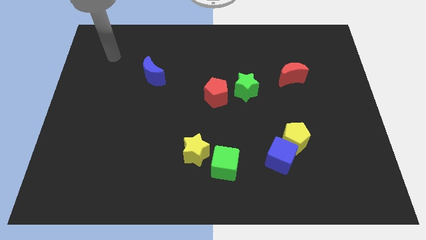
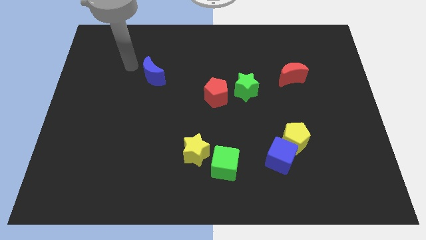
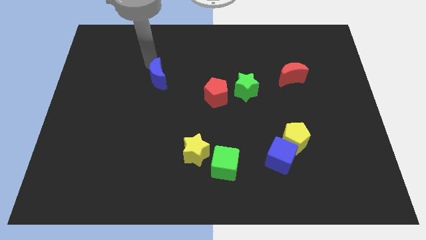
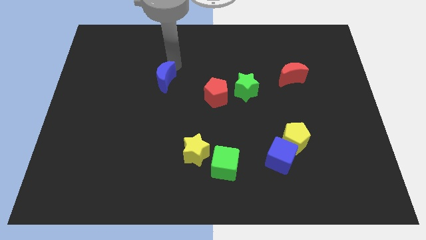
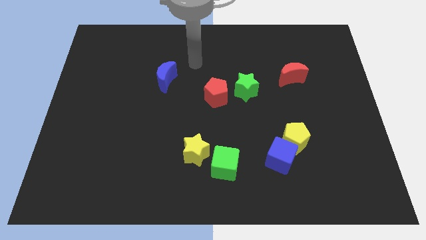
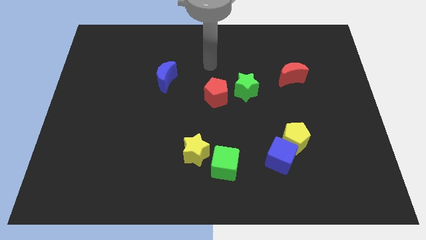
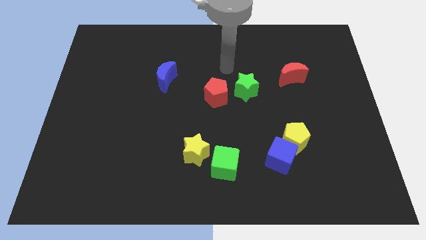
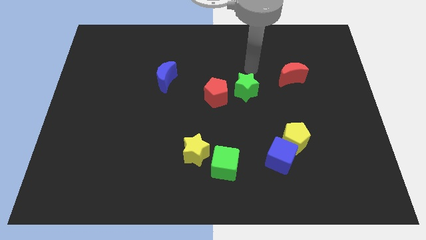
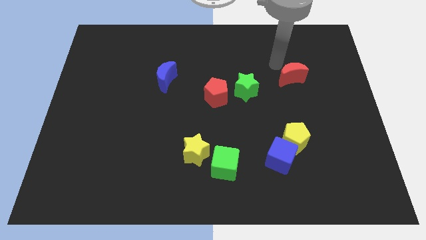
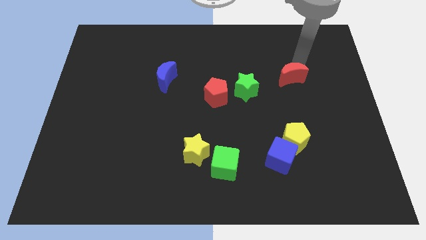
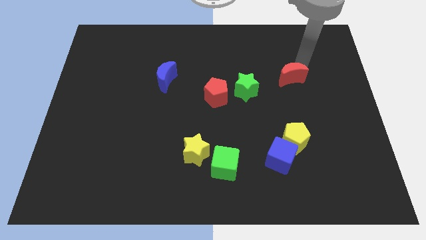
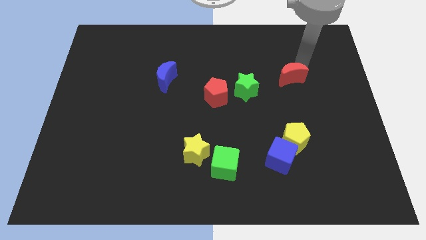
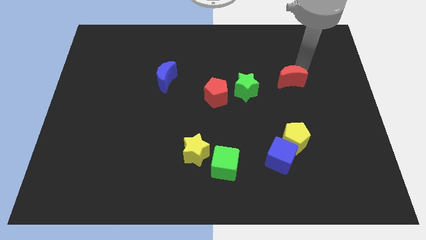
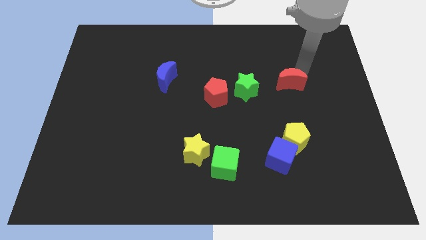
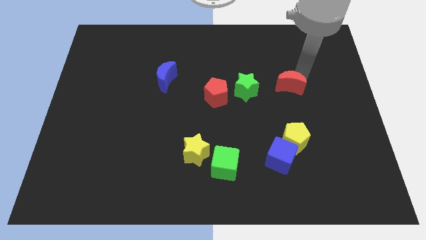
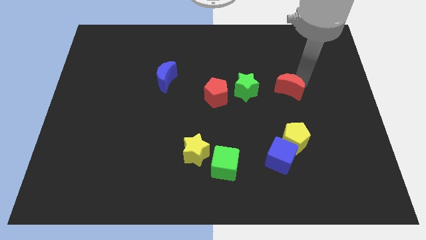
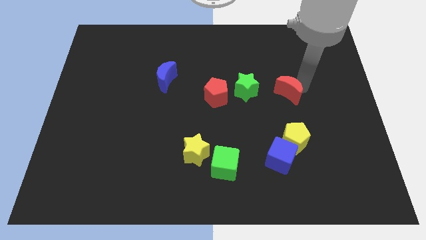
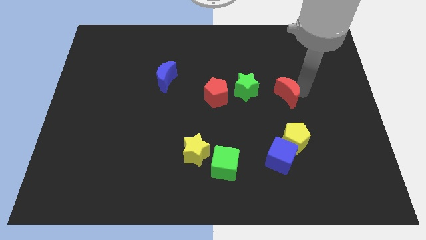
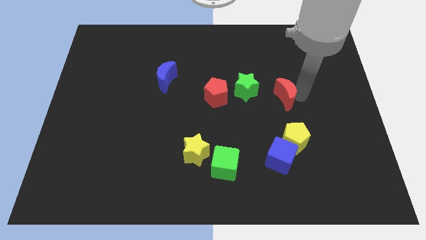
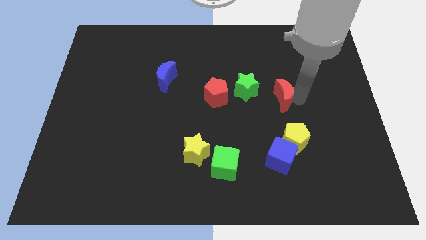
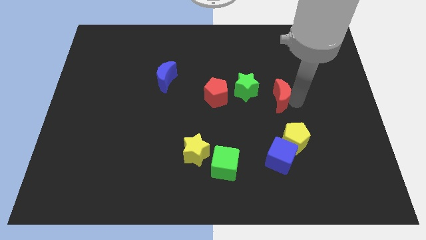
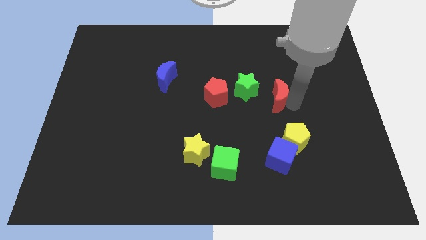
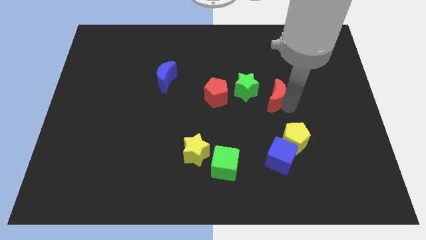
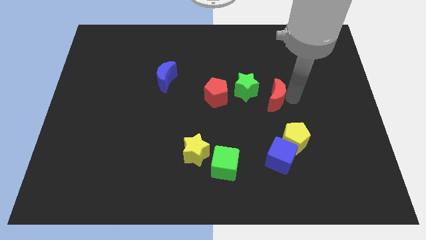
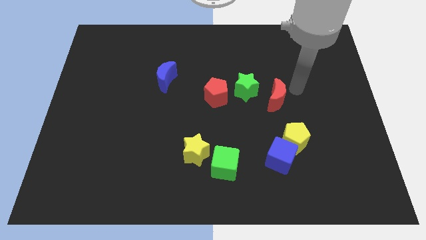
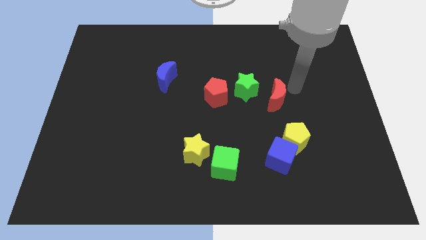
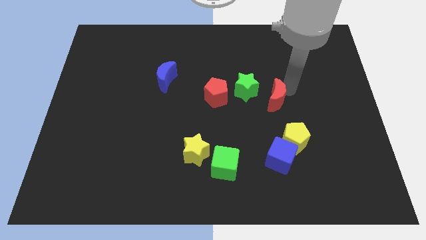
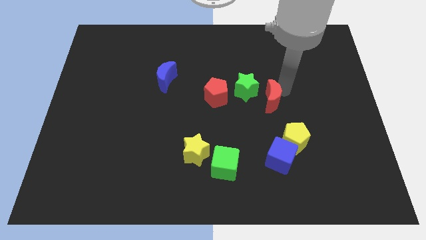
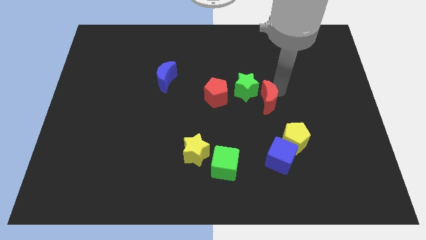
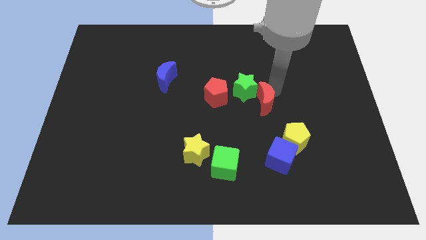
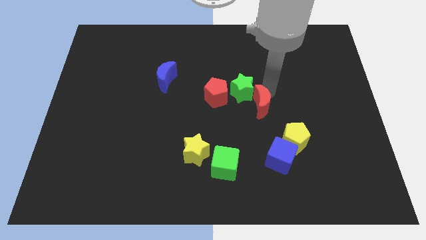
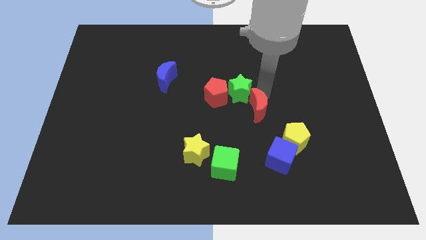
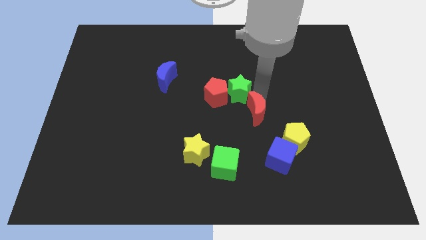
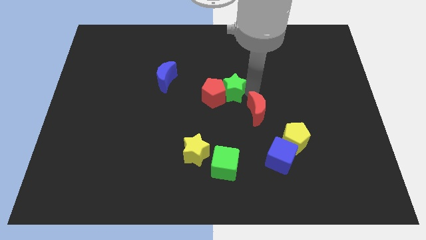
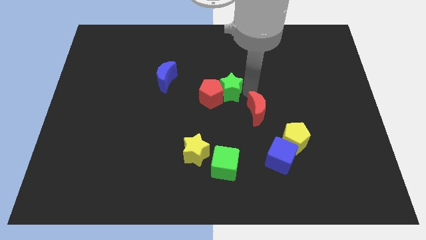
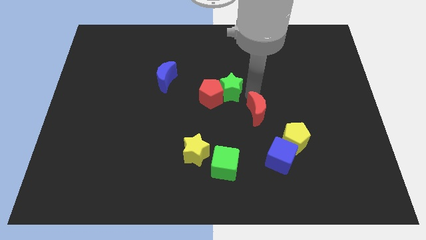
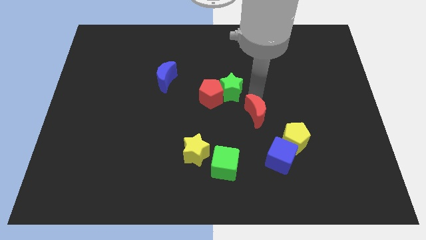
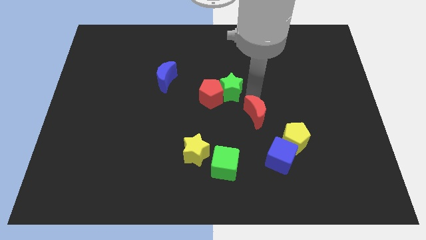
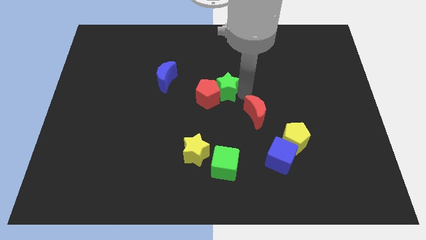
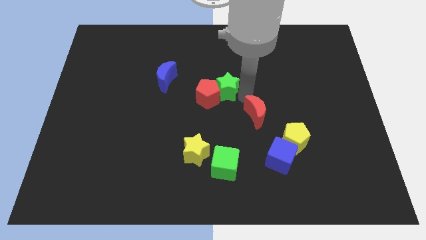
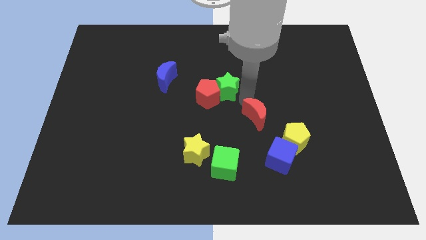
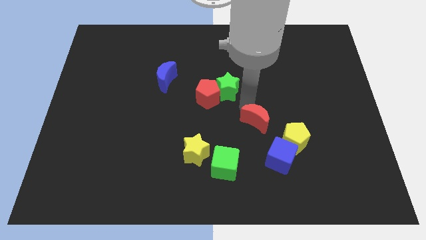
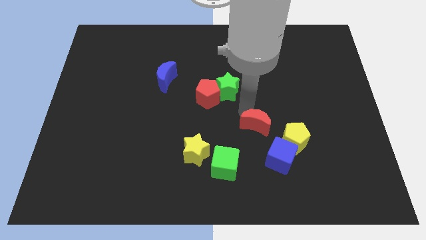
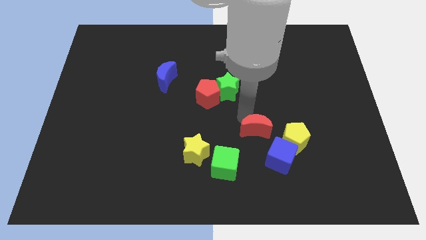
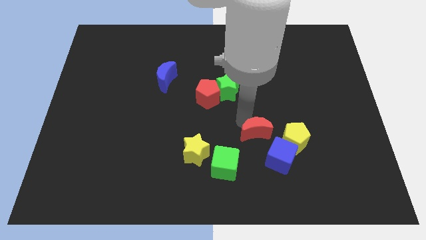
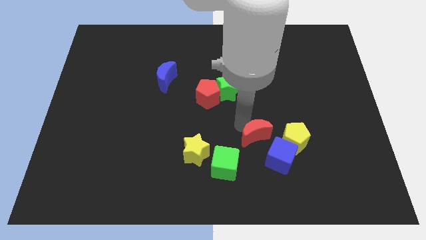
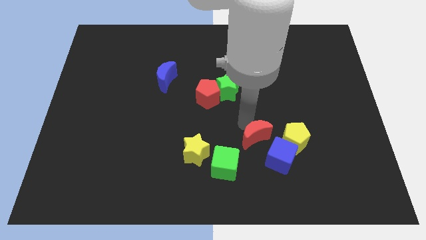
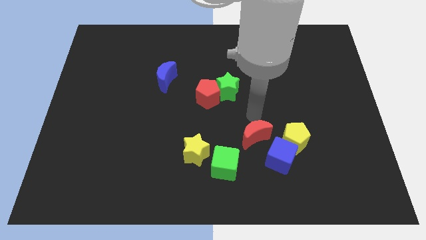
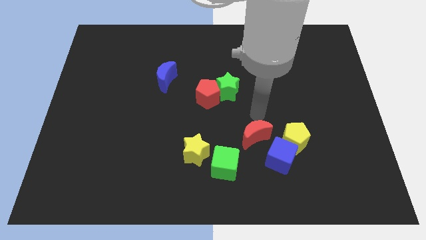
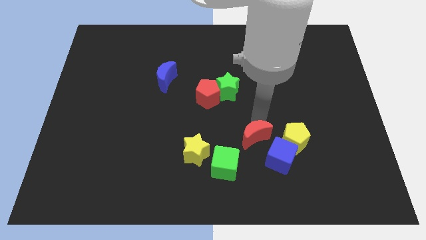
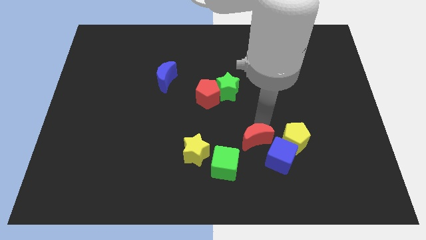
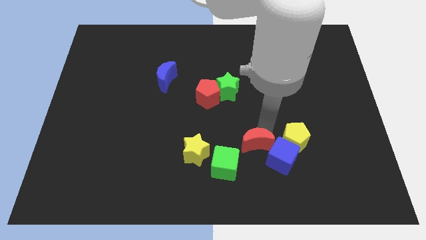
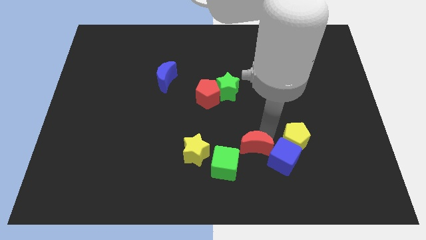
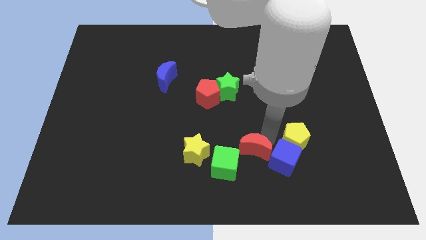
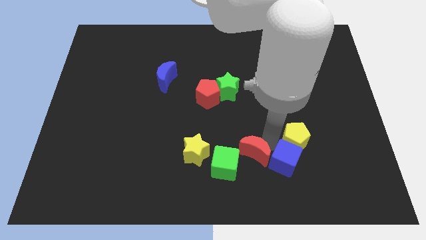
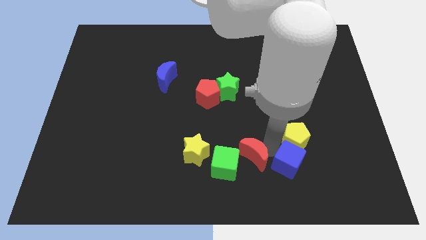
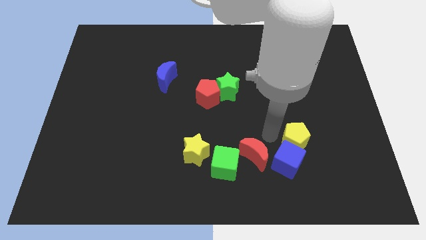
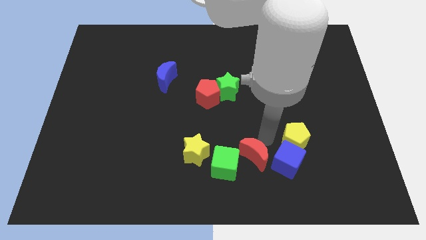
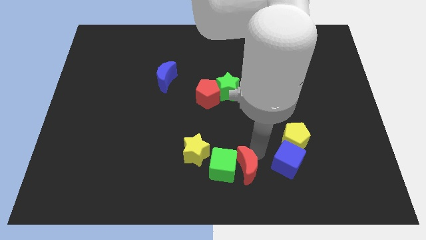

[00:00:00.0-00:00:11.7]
slide the red moon to the bottom

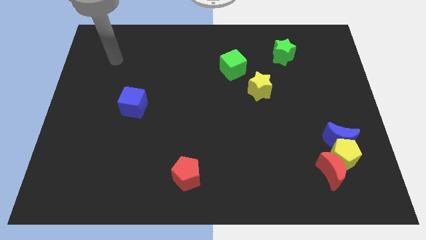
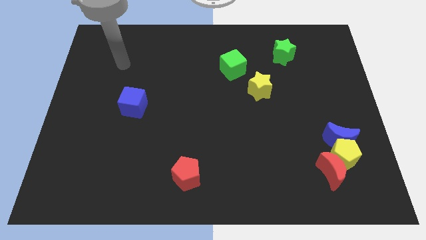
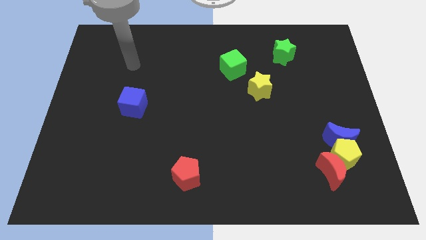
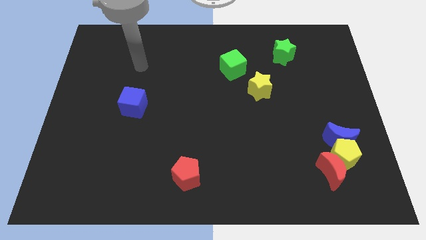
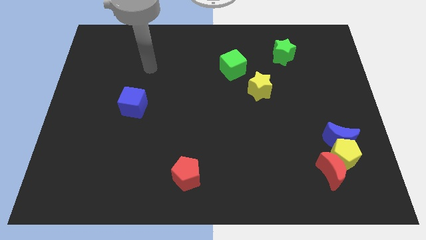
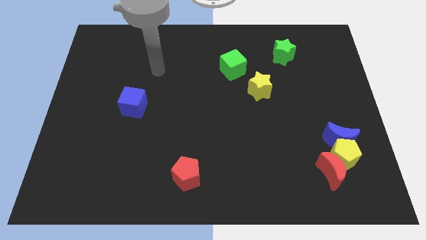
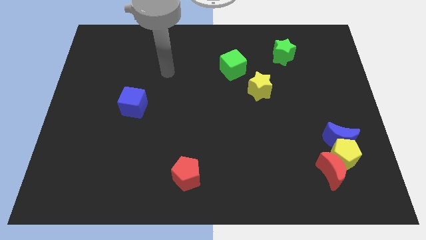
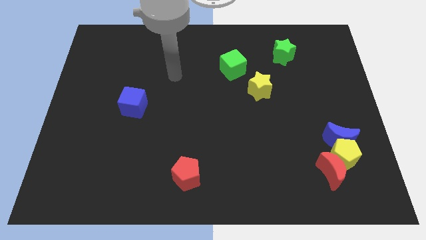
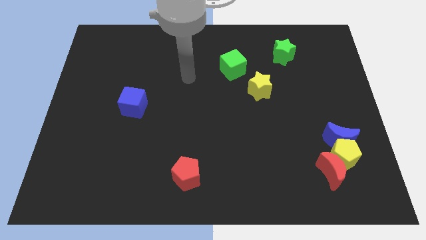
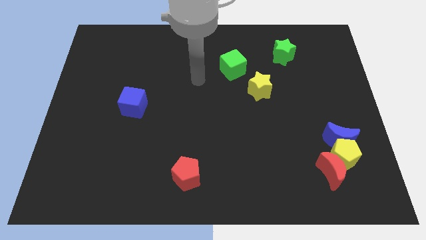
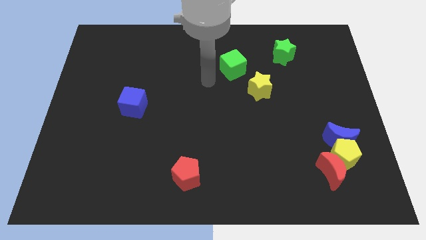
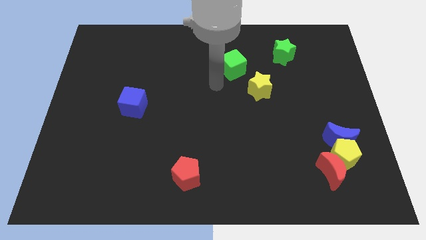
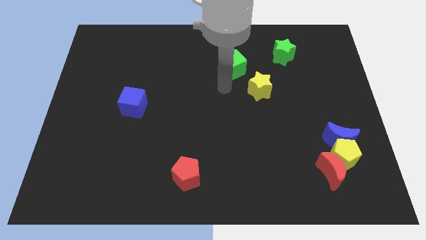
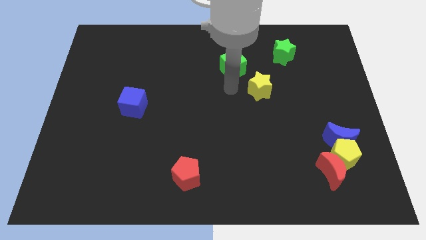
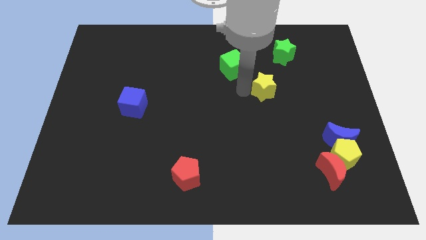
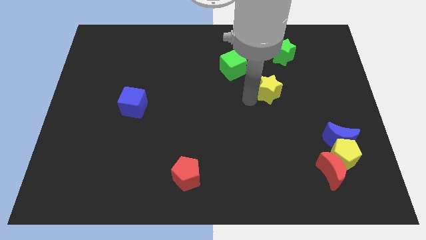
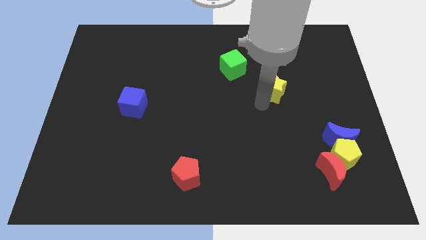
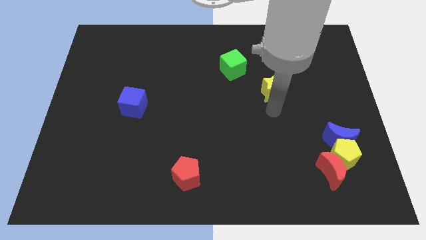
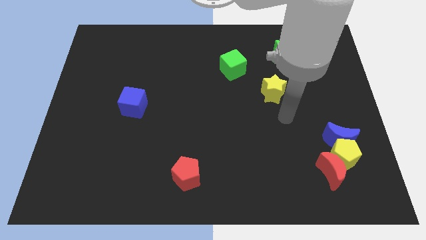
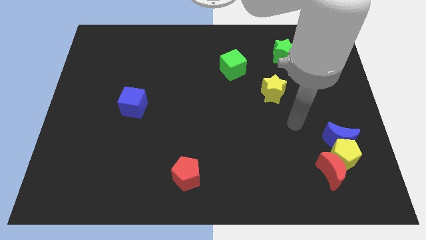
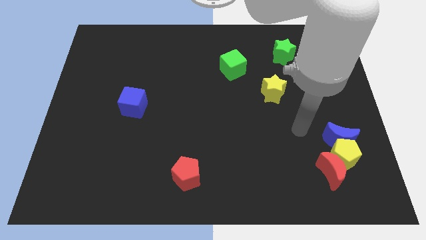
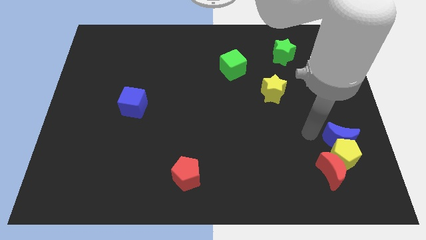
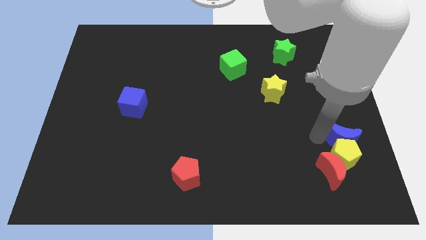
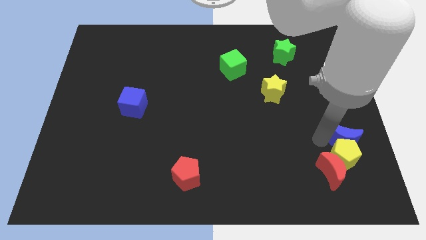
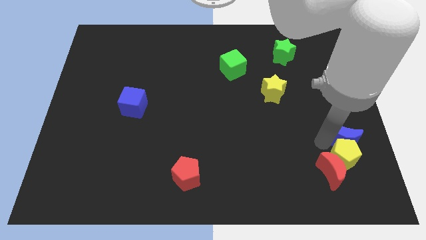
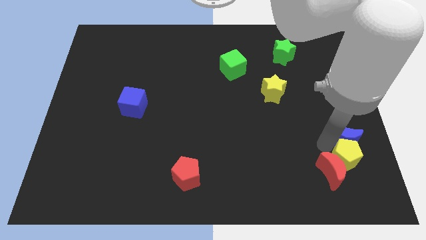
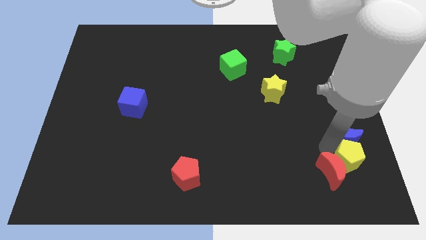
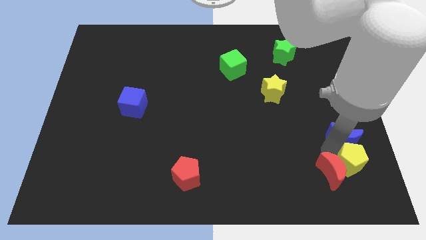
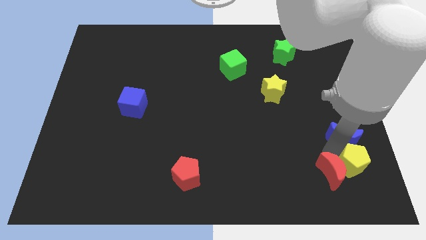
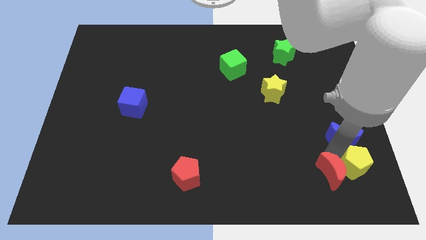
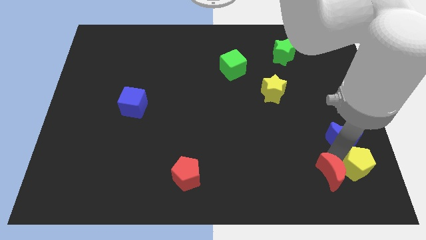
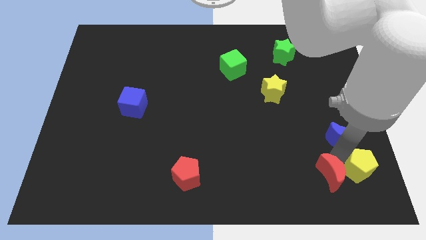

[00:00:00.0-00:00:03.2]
push the yellow pentagon to the bottom right of the board
